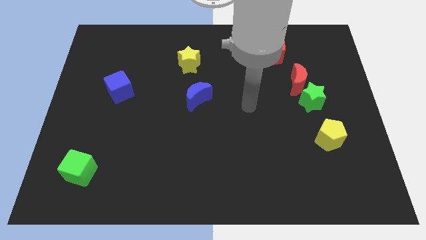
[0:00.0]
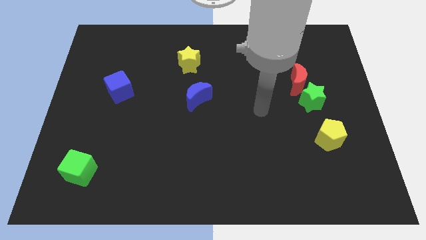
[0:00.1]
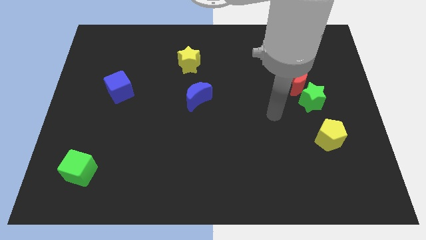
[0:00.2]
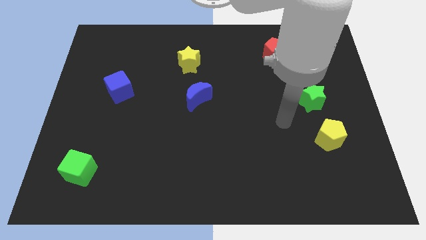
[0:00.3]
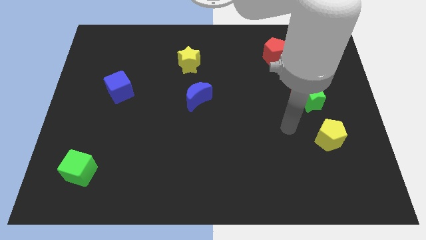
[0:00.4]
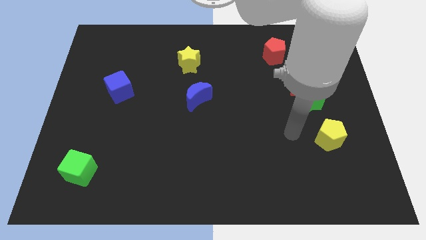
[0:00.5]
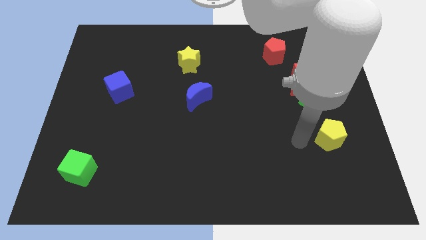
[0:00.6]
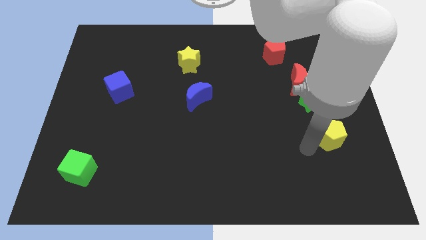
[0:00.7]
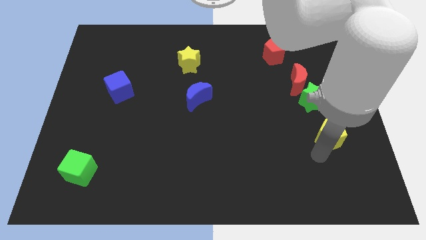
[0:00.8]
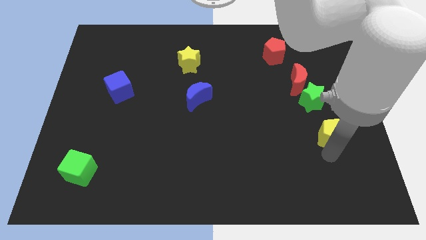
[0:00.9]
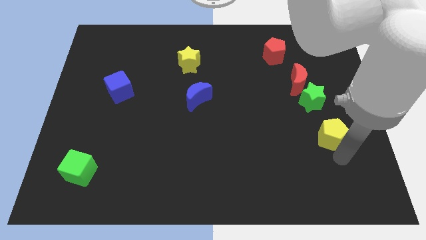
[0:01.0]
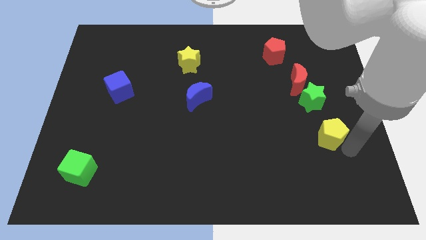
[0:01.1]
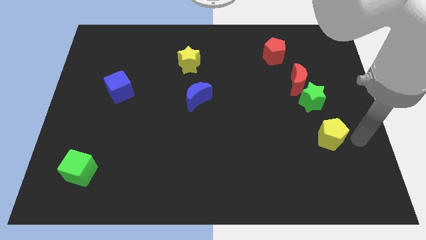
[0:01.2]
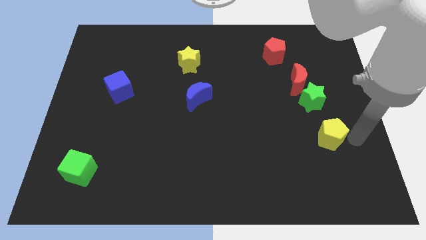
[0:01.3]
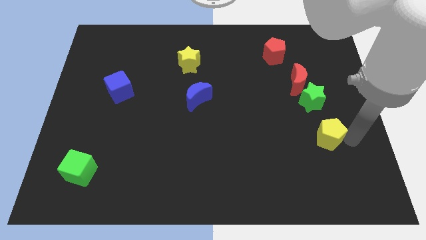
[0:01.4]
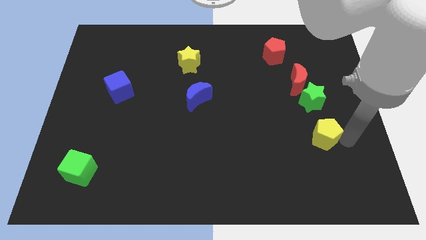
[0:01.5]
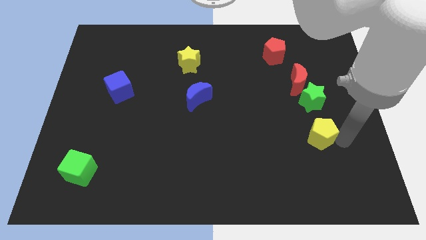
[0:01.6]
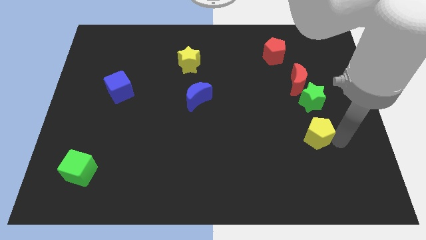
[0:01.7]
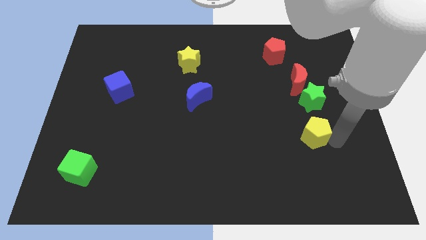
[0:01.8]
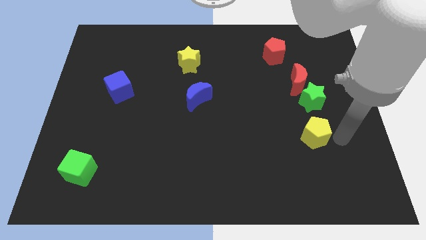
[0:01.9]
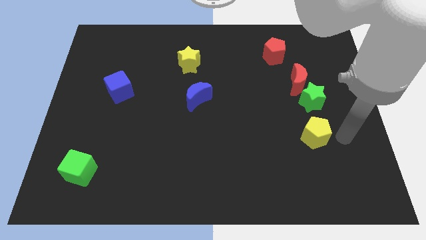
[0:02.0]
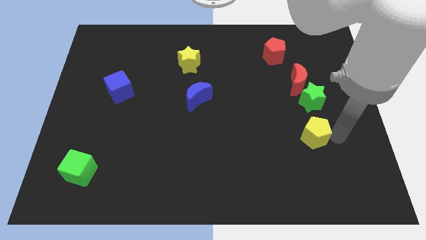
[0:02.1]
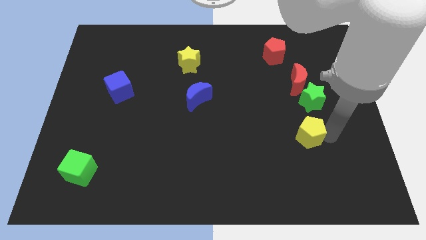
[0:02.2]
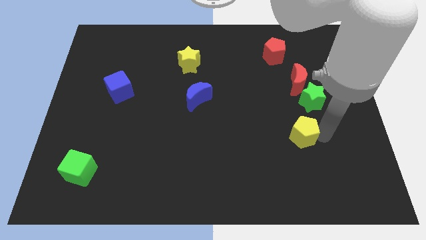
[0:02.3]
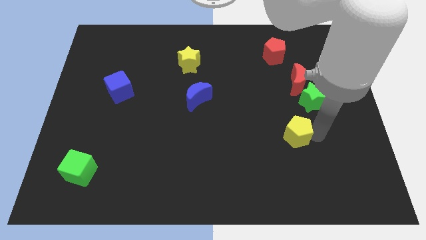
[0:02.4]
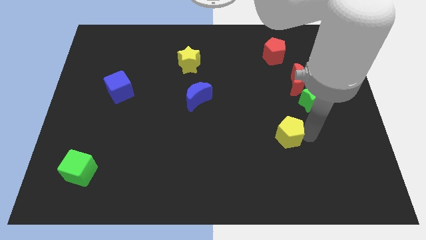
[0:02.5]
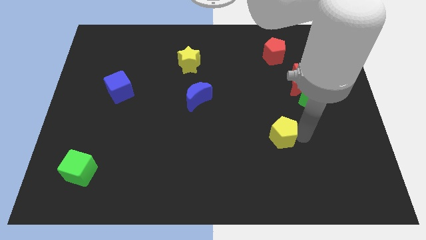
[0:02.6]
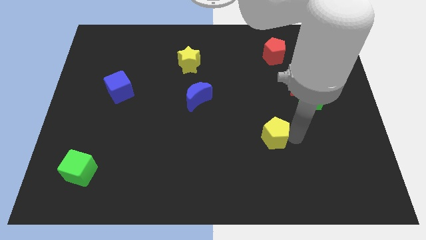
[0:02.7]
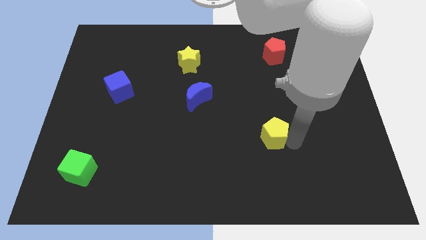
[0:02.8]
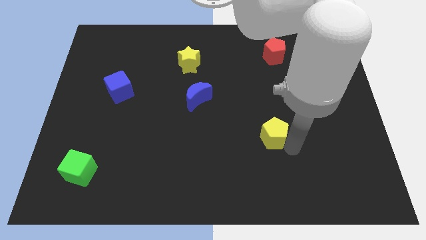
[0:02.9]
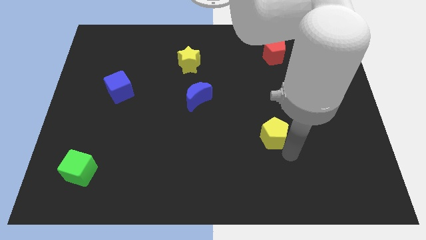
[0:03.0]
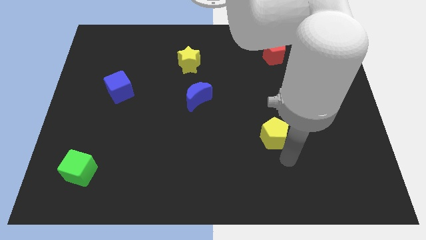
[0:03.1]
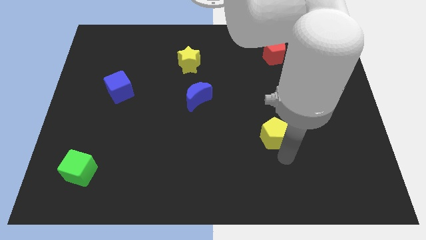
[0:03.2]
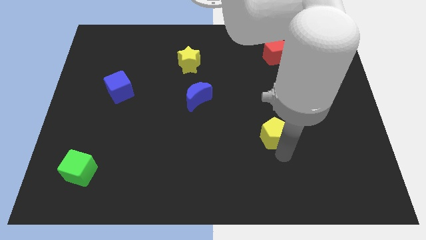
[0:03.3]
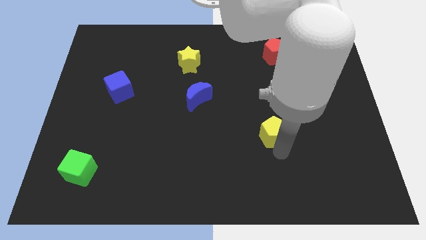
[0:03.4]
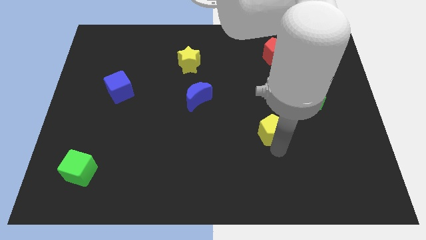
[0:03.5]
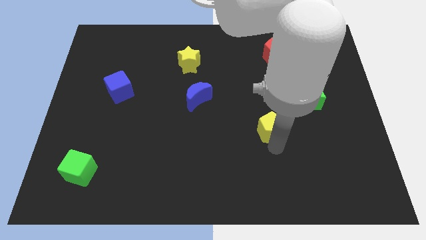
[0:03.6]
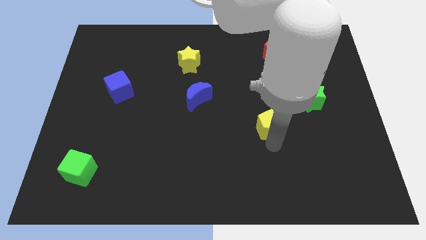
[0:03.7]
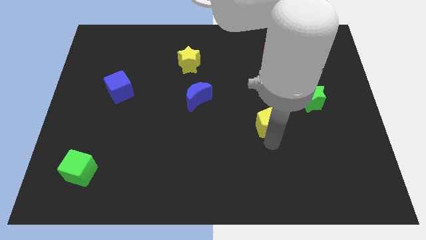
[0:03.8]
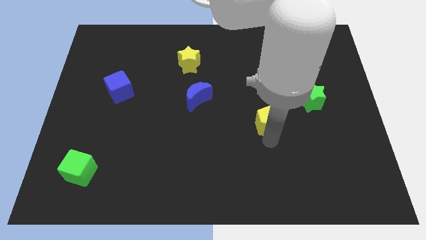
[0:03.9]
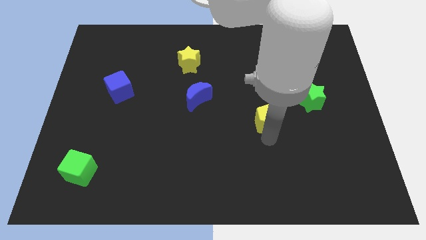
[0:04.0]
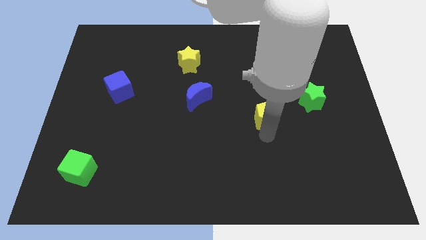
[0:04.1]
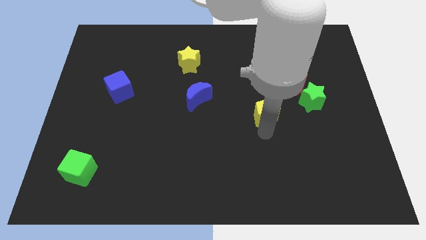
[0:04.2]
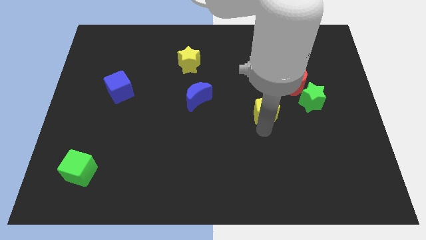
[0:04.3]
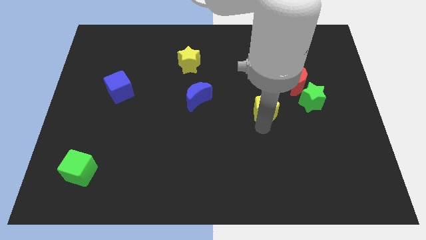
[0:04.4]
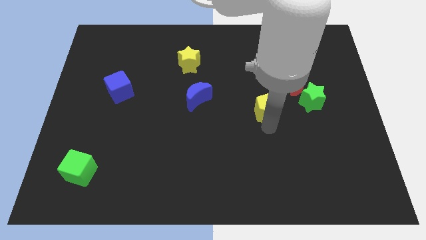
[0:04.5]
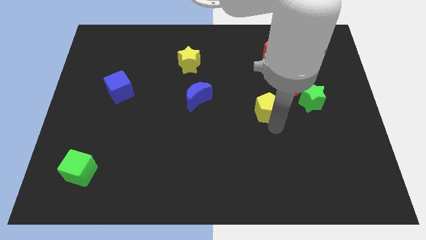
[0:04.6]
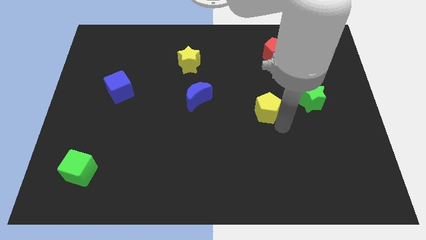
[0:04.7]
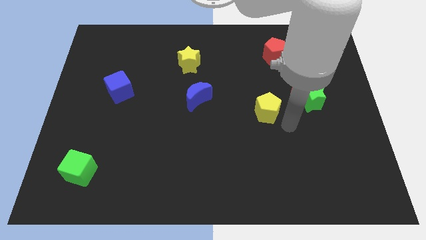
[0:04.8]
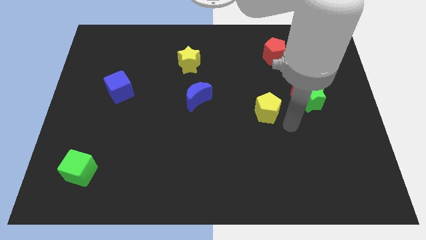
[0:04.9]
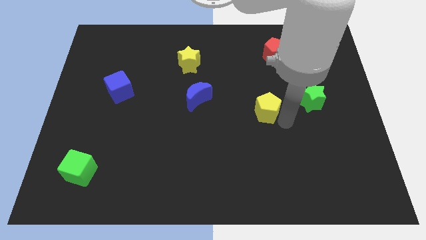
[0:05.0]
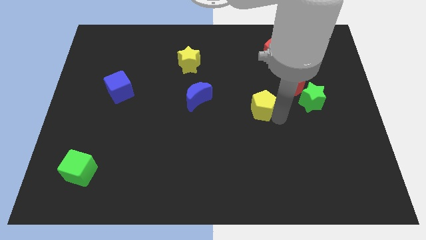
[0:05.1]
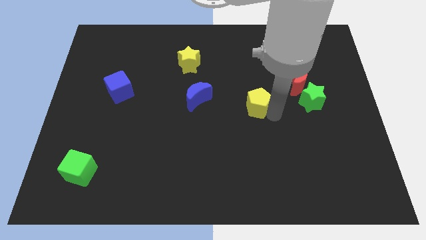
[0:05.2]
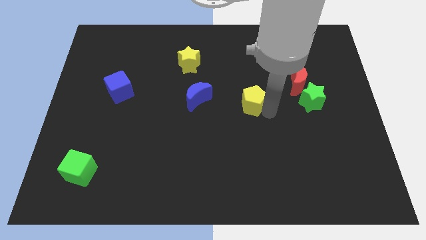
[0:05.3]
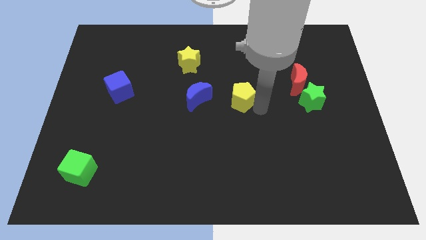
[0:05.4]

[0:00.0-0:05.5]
slide the yellow pentagon diagonally upwards and to the left

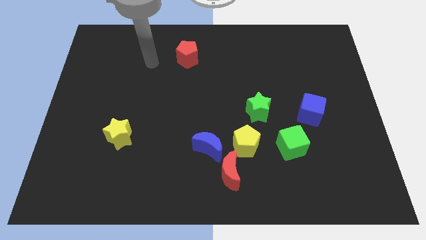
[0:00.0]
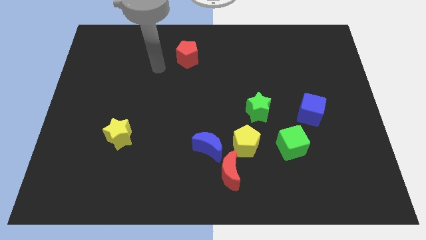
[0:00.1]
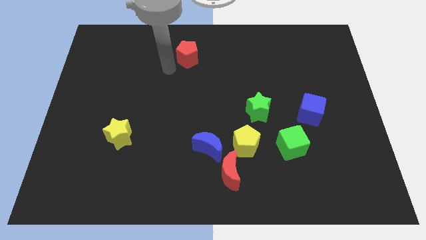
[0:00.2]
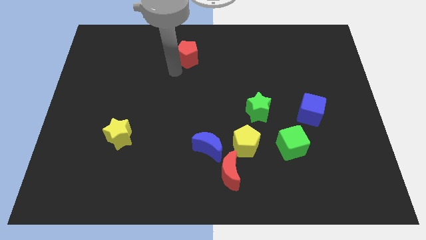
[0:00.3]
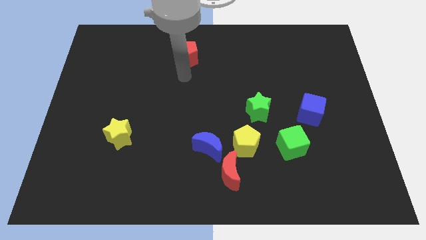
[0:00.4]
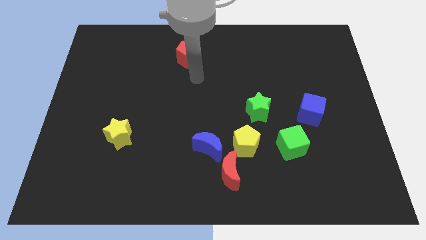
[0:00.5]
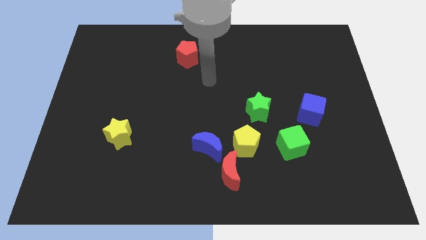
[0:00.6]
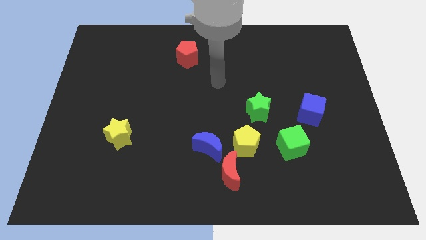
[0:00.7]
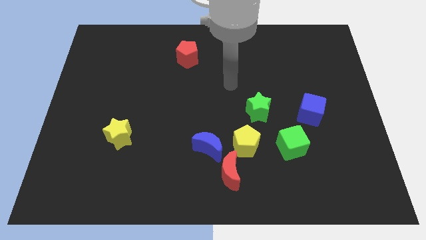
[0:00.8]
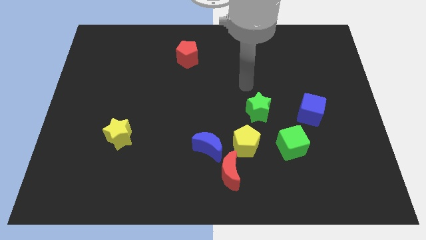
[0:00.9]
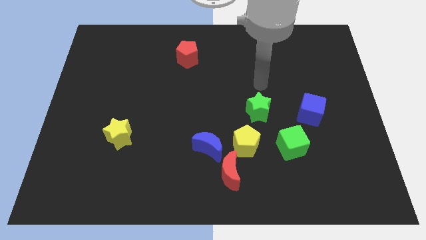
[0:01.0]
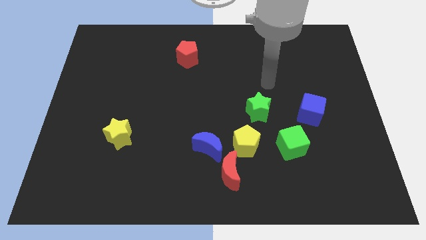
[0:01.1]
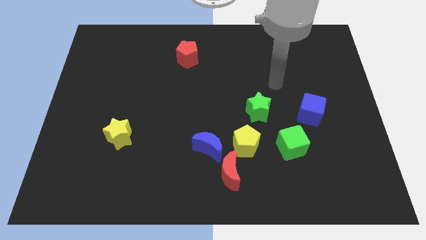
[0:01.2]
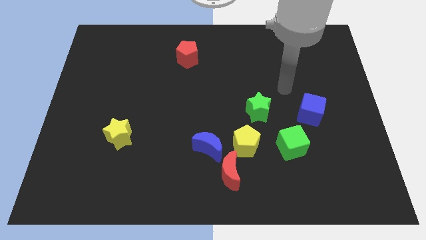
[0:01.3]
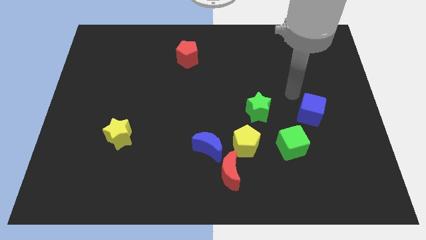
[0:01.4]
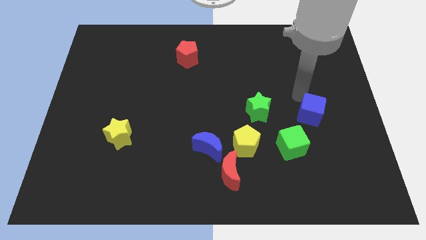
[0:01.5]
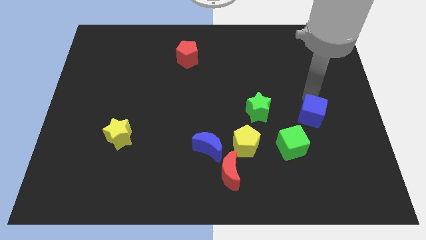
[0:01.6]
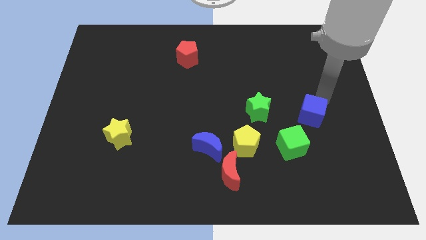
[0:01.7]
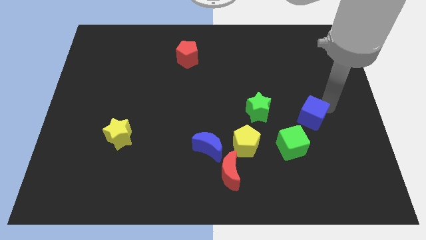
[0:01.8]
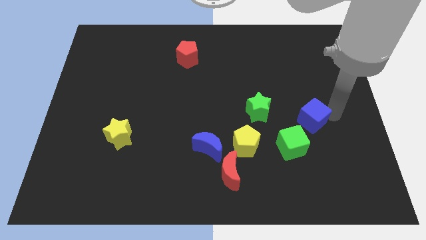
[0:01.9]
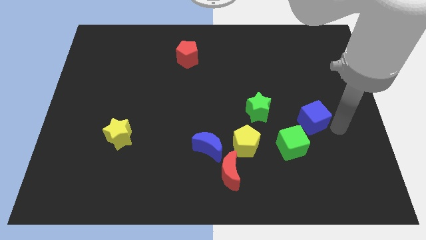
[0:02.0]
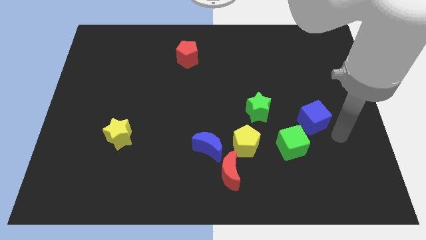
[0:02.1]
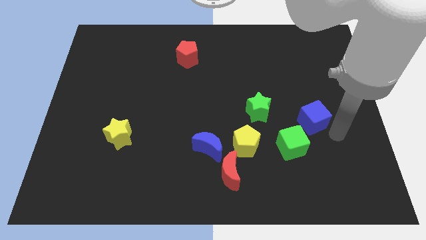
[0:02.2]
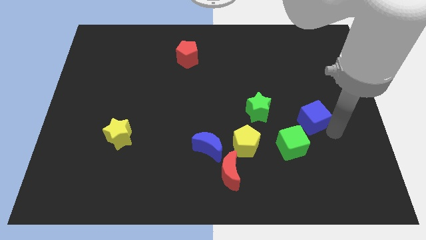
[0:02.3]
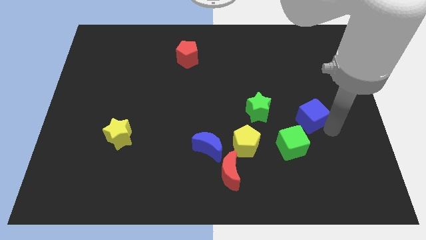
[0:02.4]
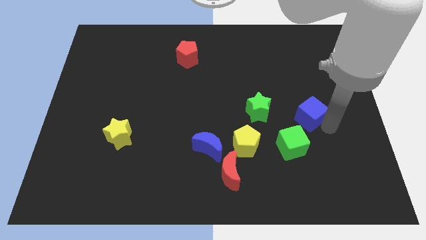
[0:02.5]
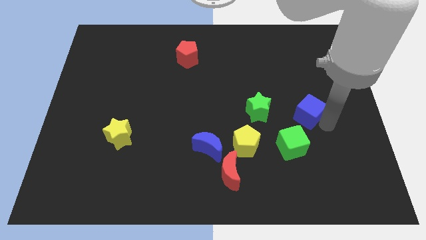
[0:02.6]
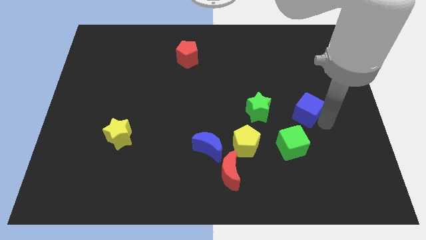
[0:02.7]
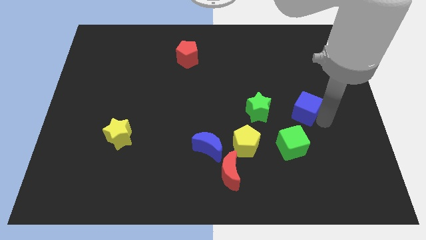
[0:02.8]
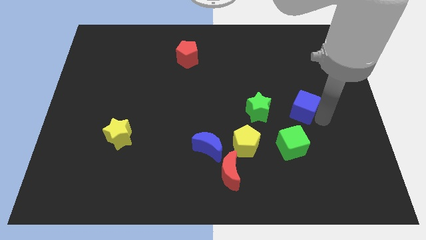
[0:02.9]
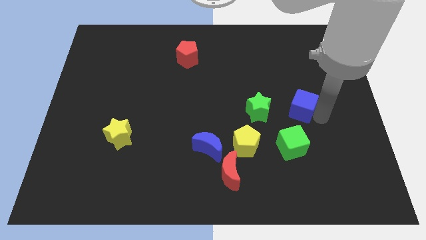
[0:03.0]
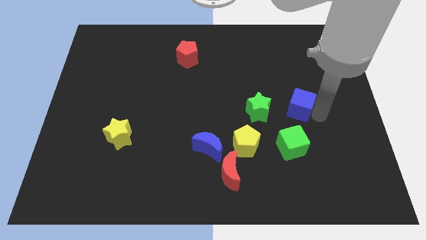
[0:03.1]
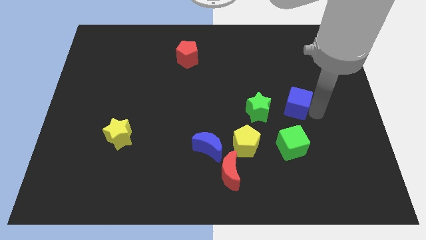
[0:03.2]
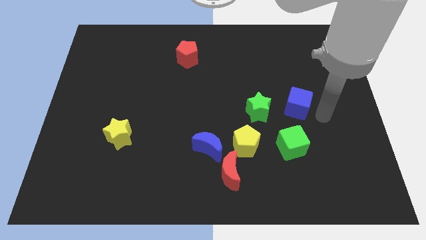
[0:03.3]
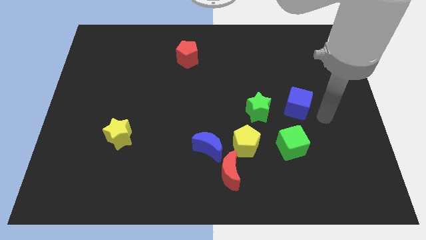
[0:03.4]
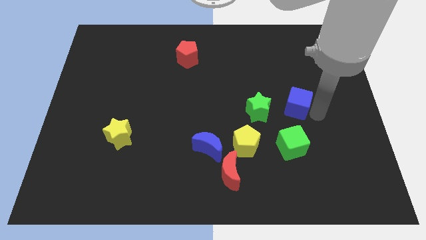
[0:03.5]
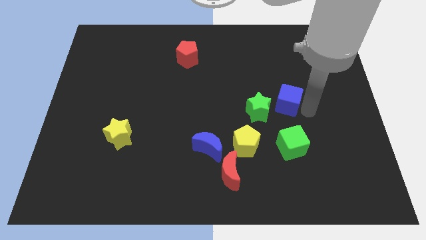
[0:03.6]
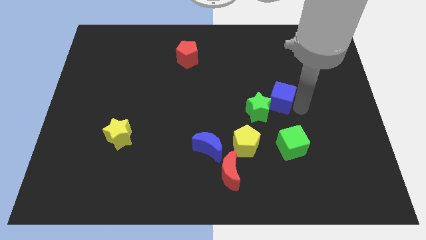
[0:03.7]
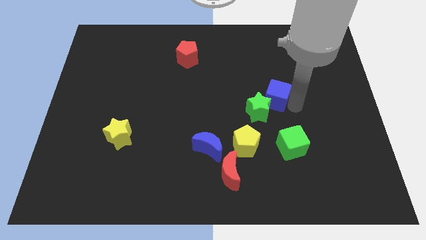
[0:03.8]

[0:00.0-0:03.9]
slightly move the blue cube left
